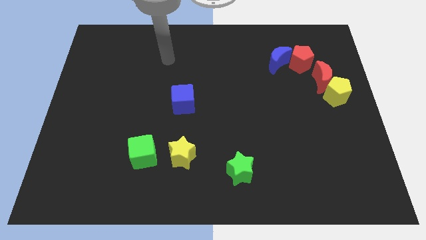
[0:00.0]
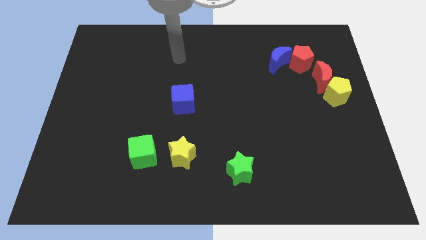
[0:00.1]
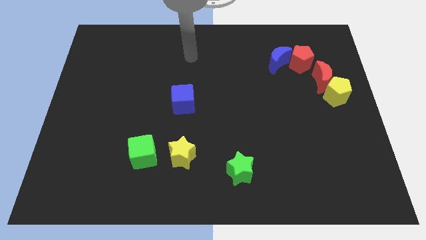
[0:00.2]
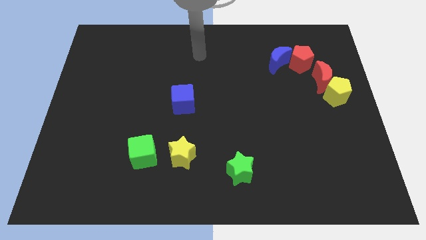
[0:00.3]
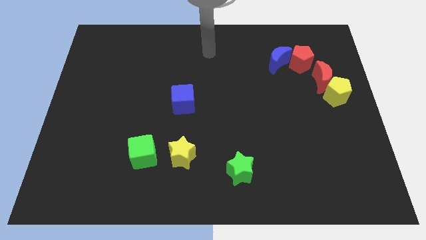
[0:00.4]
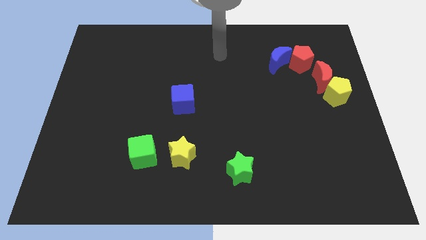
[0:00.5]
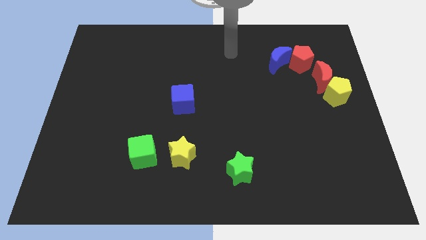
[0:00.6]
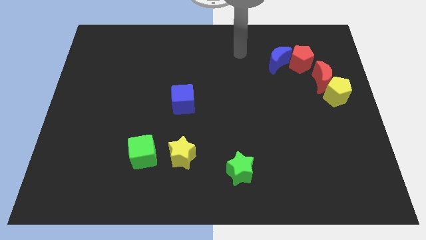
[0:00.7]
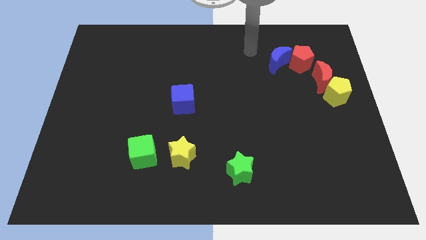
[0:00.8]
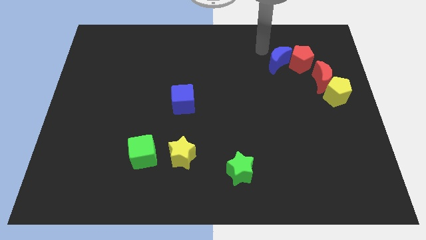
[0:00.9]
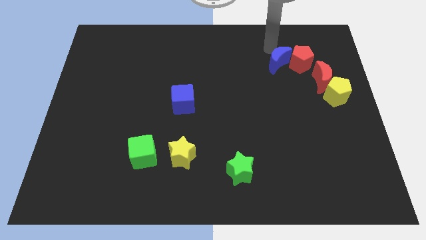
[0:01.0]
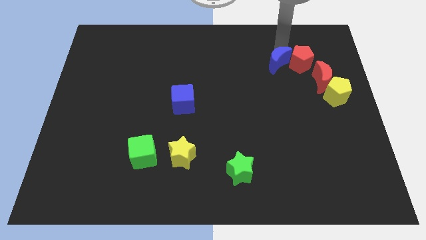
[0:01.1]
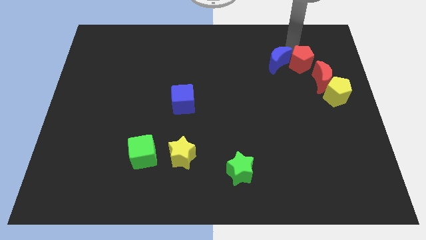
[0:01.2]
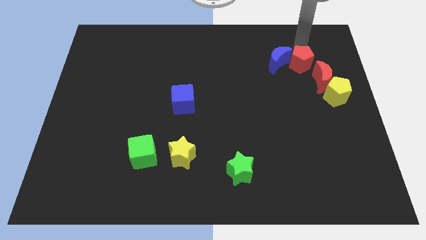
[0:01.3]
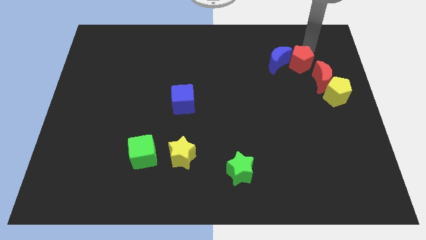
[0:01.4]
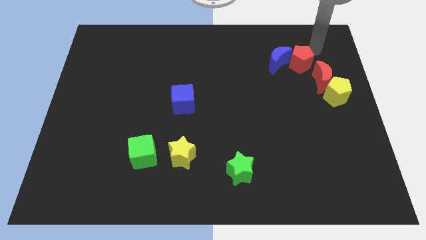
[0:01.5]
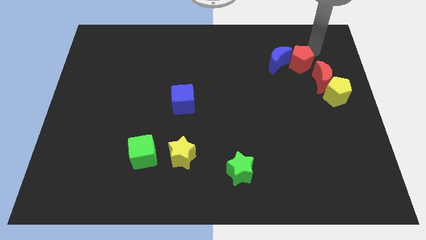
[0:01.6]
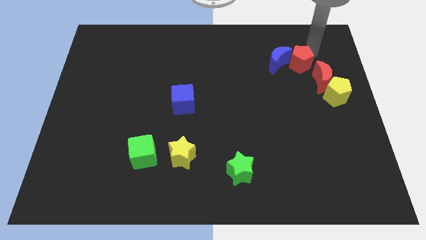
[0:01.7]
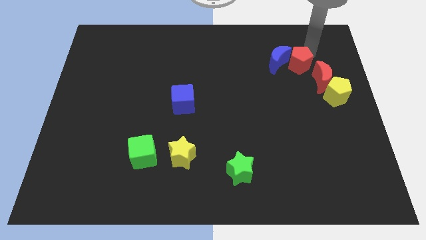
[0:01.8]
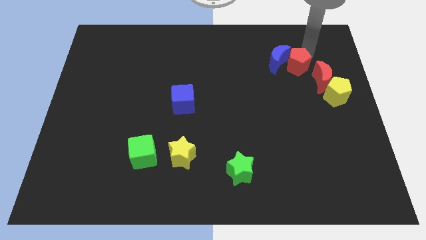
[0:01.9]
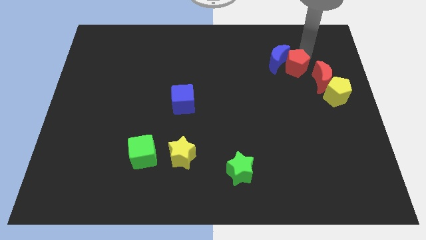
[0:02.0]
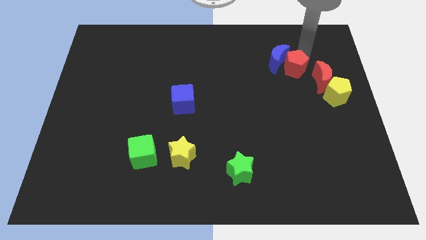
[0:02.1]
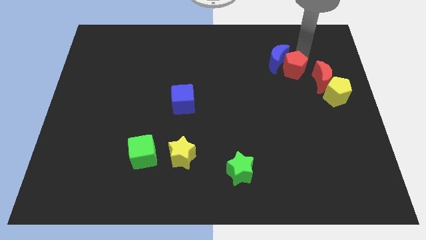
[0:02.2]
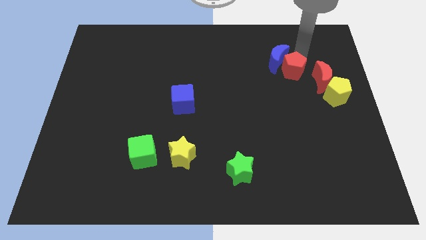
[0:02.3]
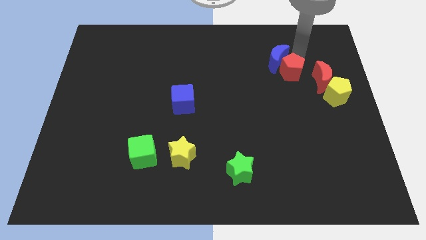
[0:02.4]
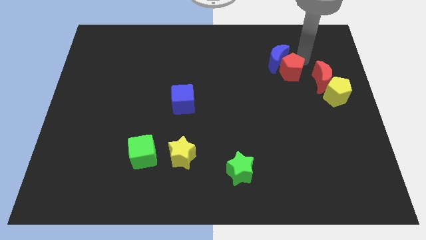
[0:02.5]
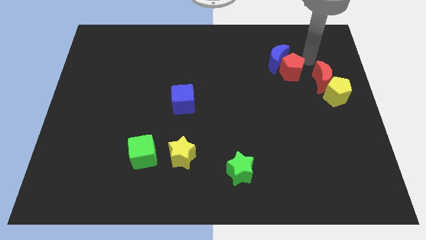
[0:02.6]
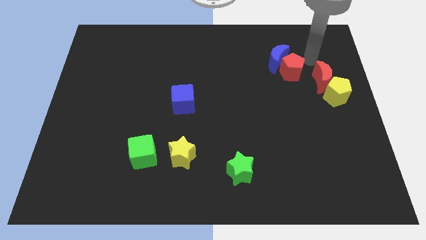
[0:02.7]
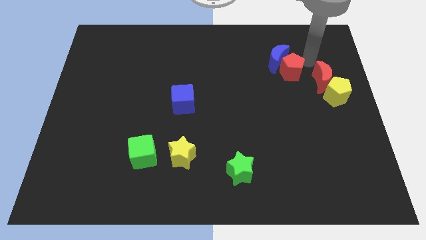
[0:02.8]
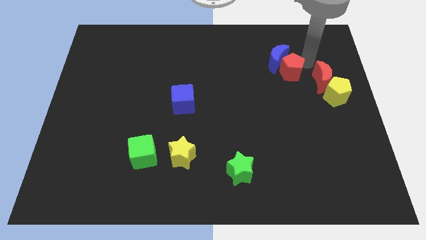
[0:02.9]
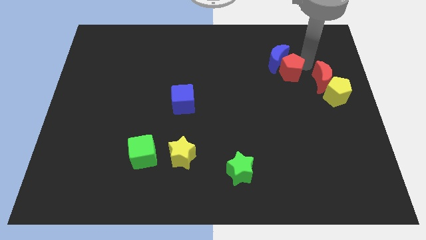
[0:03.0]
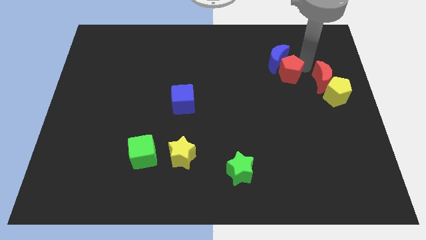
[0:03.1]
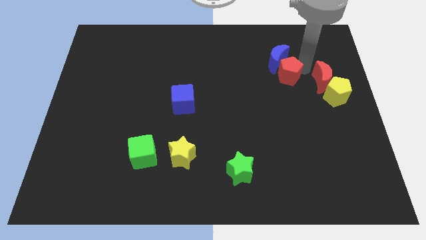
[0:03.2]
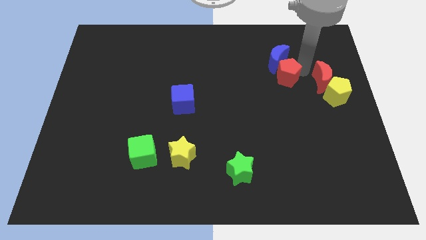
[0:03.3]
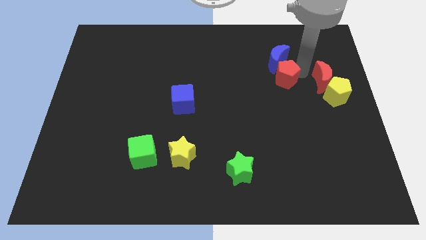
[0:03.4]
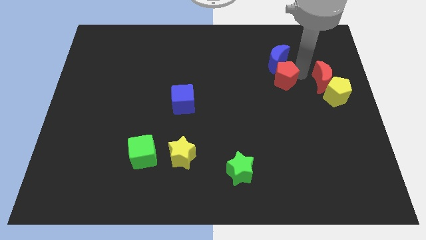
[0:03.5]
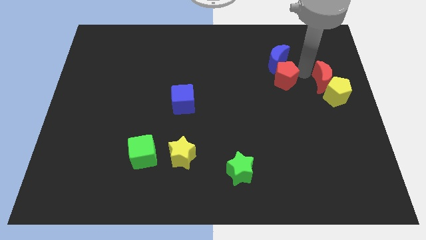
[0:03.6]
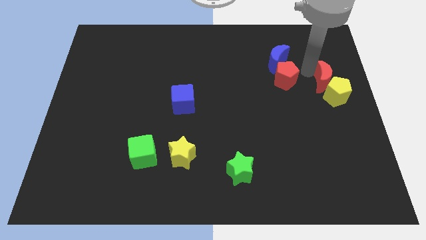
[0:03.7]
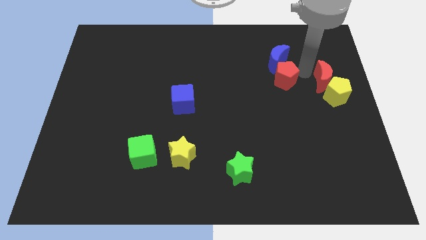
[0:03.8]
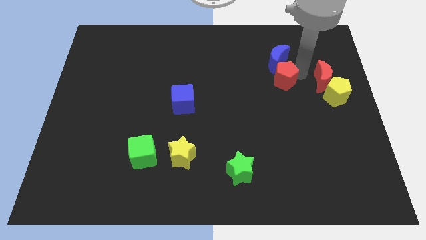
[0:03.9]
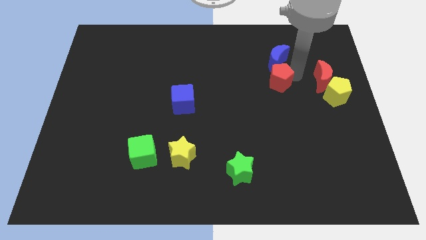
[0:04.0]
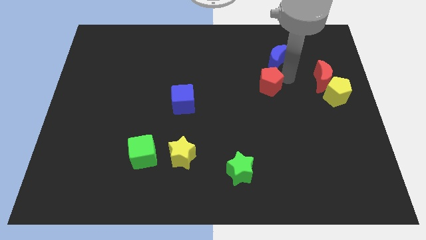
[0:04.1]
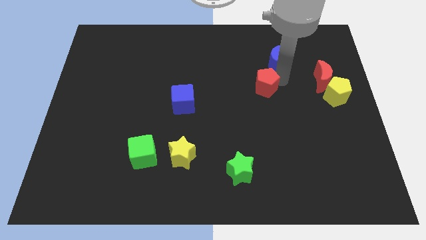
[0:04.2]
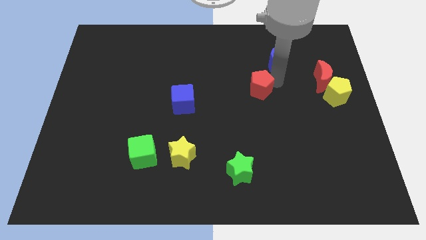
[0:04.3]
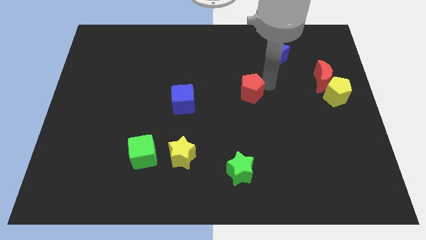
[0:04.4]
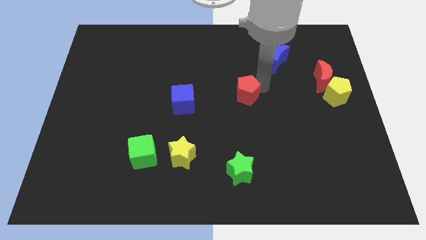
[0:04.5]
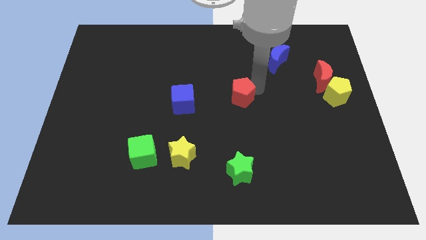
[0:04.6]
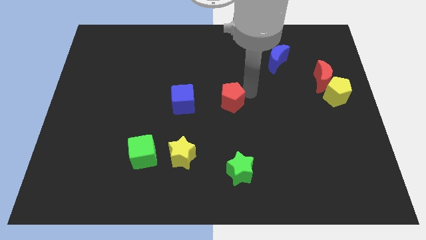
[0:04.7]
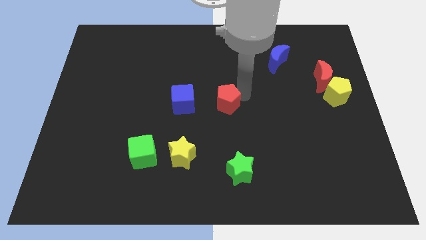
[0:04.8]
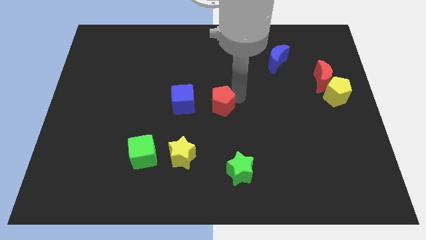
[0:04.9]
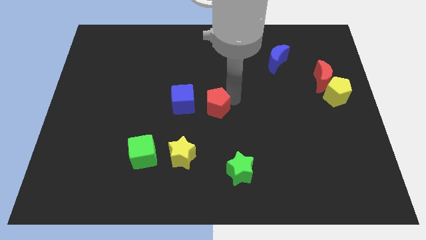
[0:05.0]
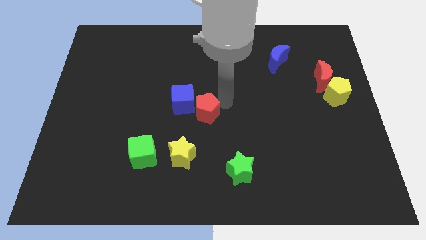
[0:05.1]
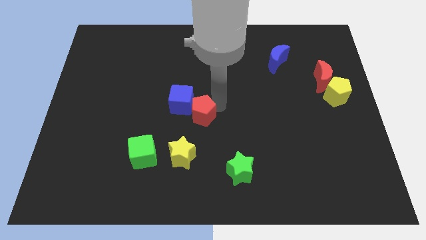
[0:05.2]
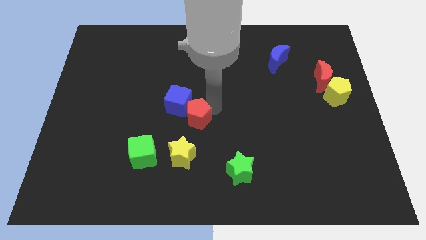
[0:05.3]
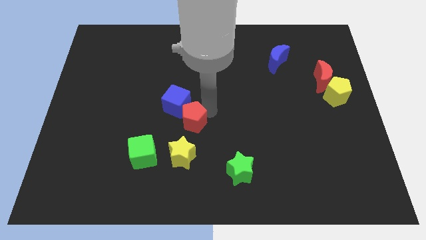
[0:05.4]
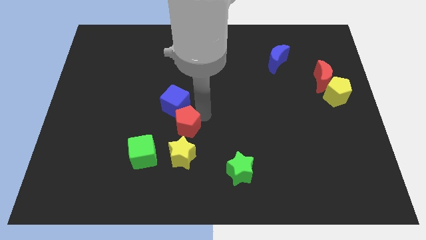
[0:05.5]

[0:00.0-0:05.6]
put the red pentagon diagonally up and to the right of the green cube
